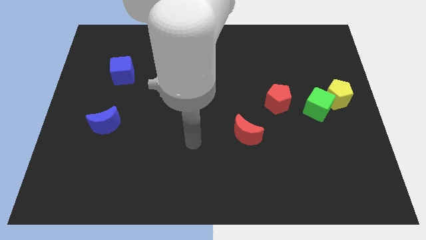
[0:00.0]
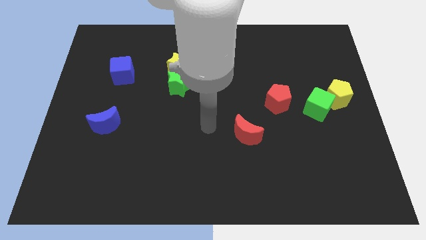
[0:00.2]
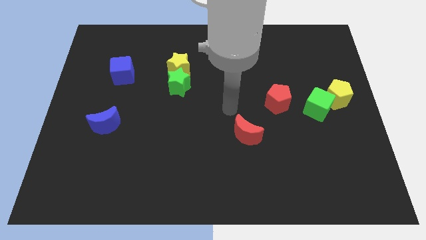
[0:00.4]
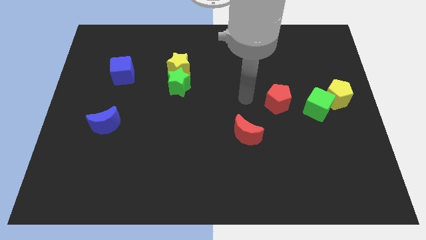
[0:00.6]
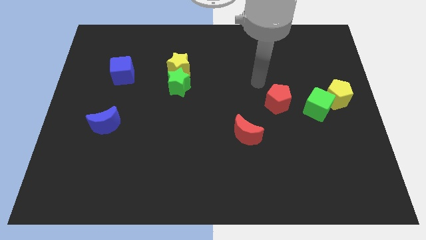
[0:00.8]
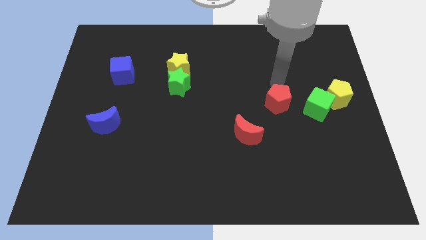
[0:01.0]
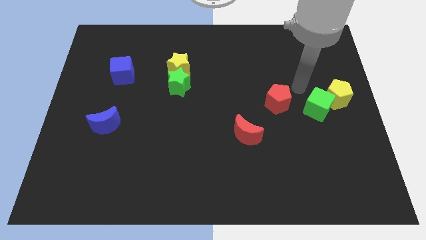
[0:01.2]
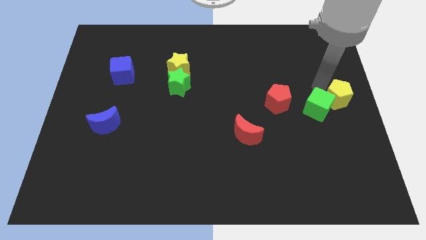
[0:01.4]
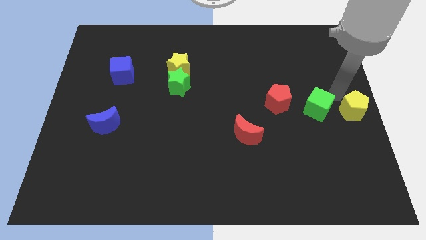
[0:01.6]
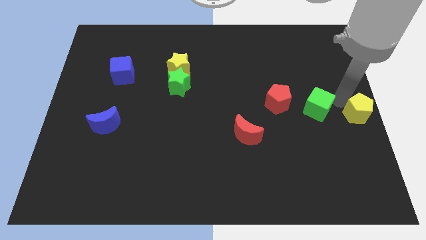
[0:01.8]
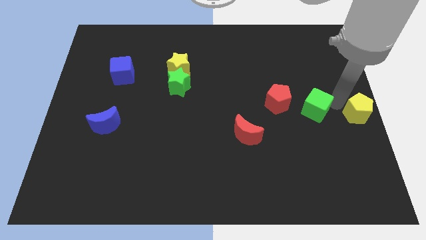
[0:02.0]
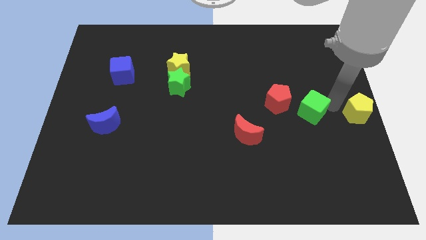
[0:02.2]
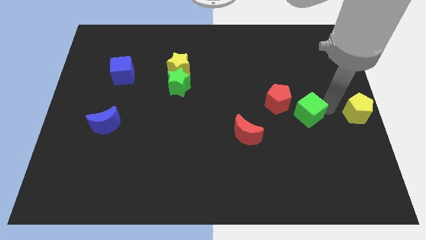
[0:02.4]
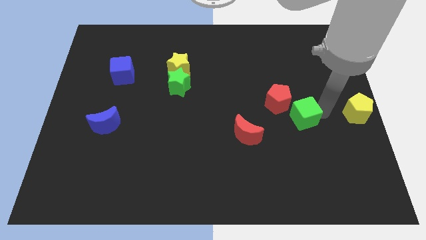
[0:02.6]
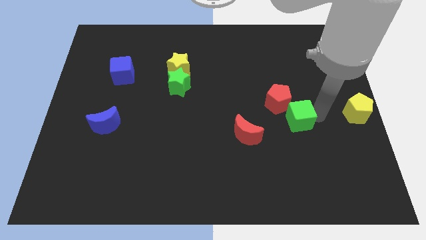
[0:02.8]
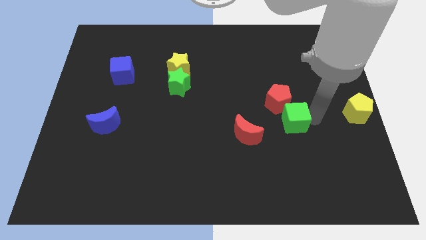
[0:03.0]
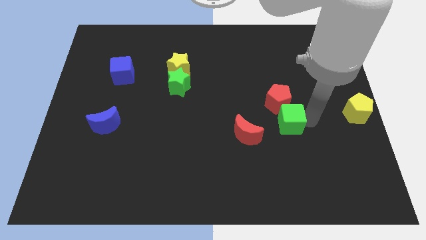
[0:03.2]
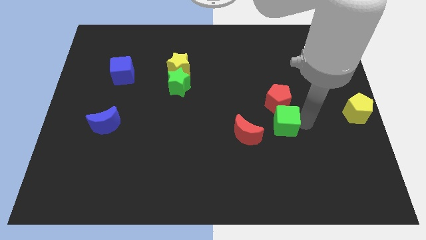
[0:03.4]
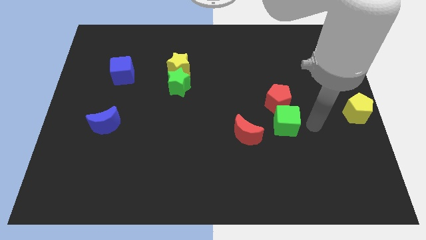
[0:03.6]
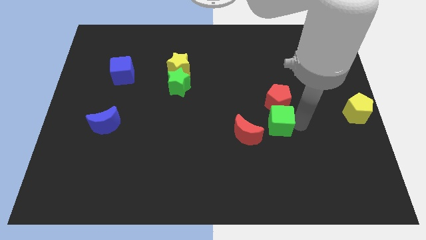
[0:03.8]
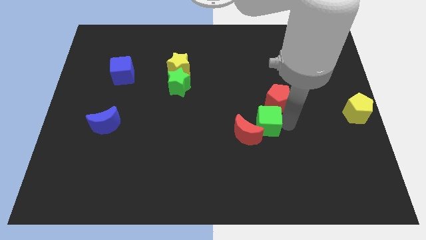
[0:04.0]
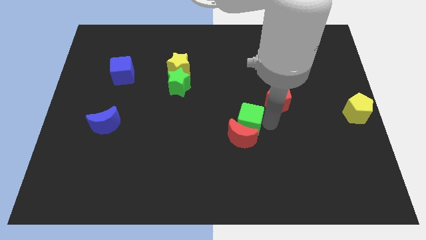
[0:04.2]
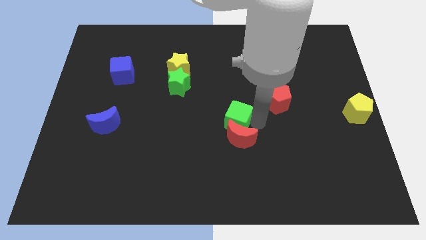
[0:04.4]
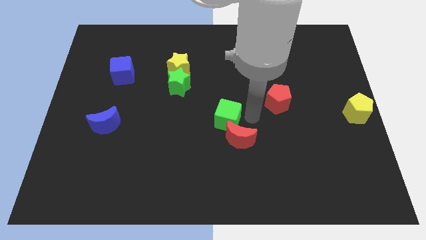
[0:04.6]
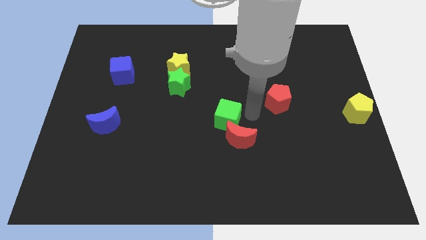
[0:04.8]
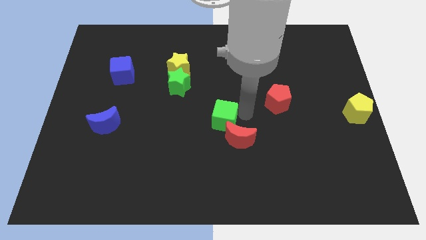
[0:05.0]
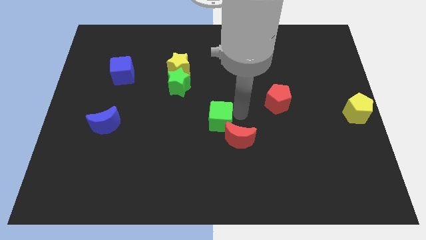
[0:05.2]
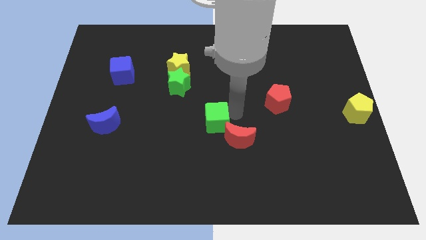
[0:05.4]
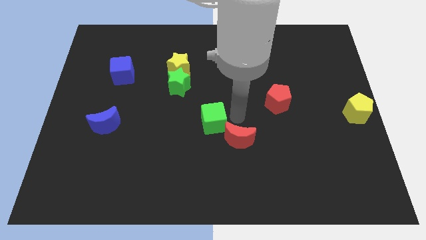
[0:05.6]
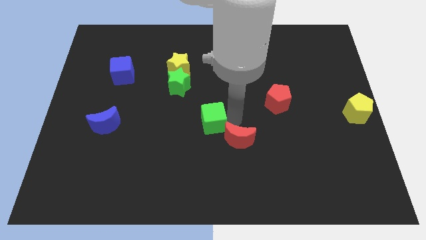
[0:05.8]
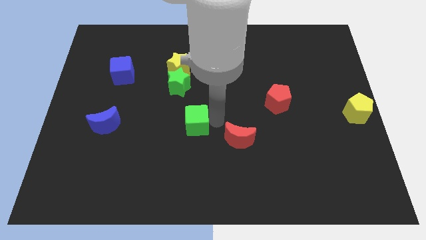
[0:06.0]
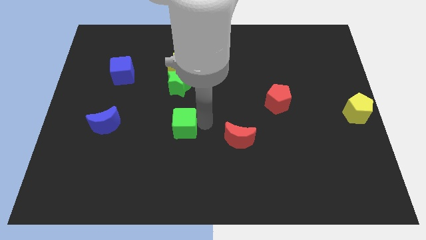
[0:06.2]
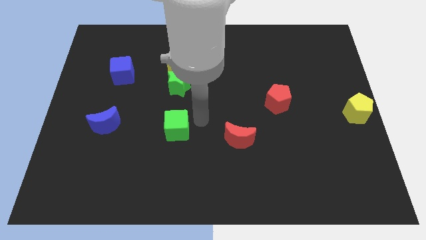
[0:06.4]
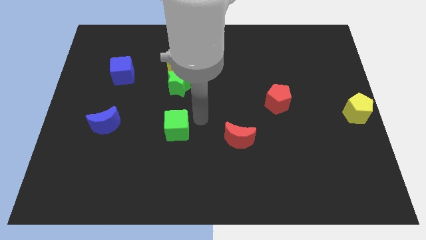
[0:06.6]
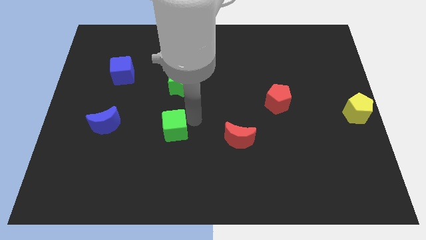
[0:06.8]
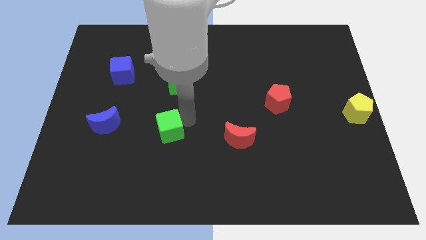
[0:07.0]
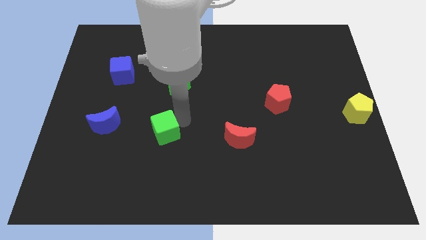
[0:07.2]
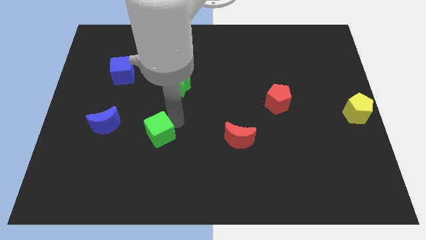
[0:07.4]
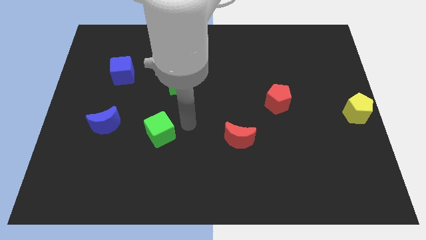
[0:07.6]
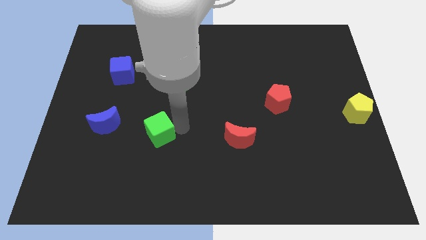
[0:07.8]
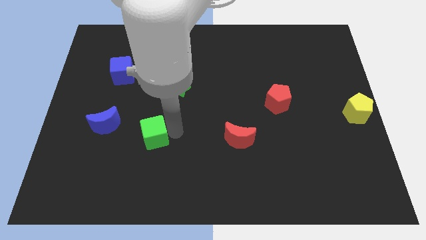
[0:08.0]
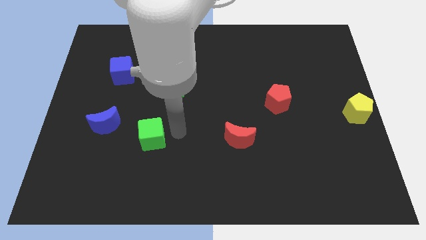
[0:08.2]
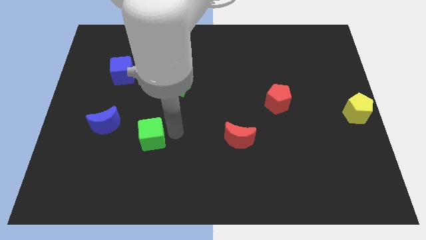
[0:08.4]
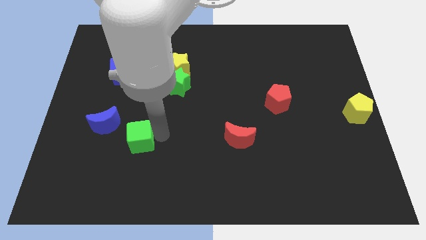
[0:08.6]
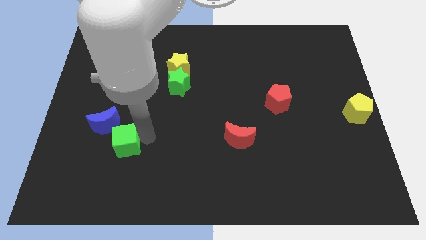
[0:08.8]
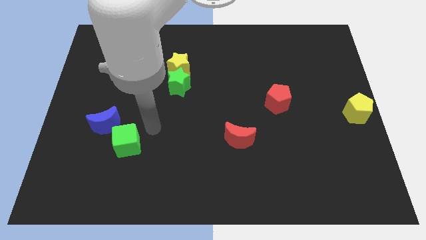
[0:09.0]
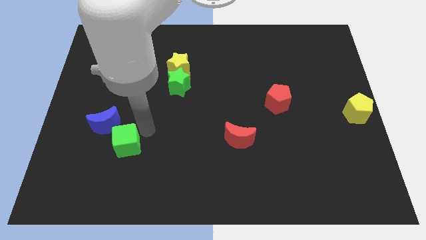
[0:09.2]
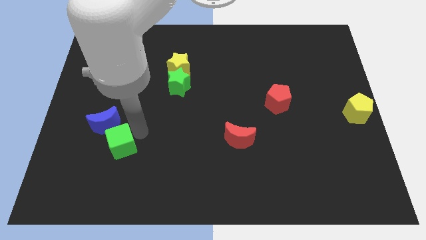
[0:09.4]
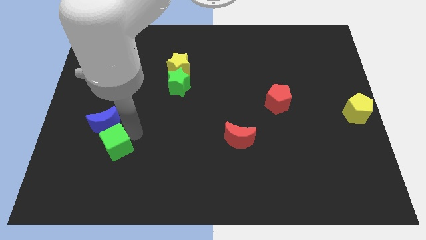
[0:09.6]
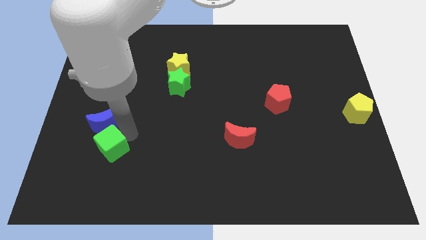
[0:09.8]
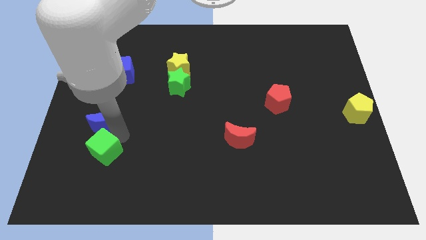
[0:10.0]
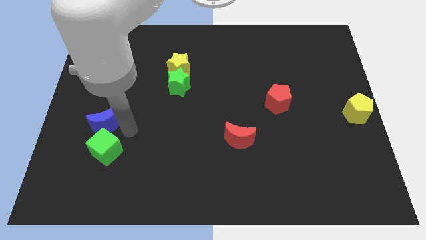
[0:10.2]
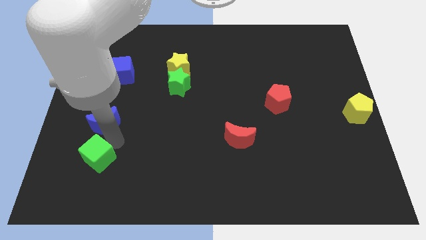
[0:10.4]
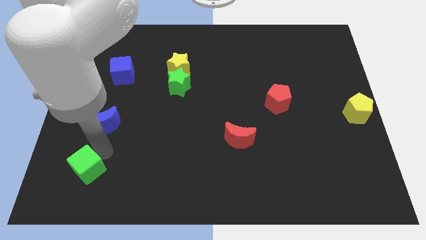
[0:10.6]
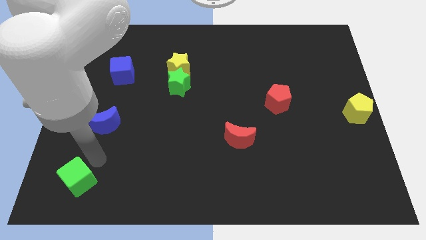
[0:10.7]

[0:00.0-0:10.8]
slide the green cube to the bottom left corner

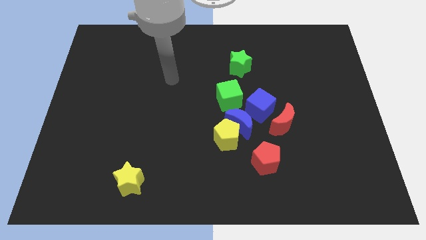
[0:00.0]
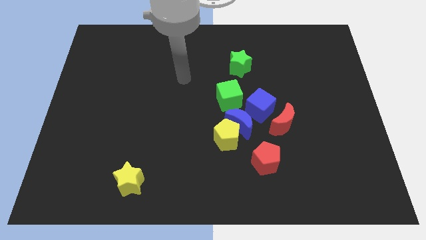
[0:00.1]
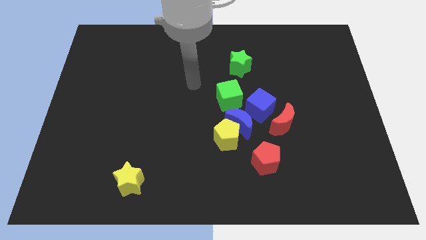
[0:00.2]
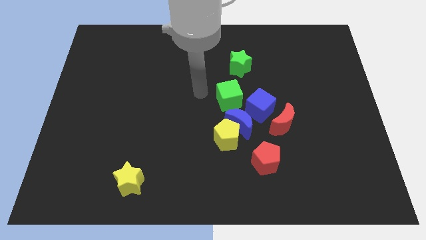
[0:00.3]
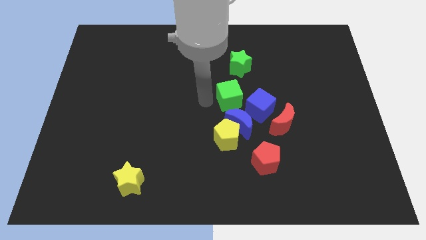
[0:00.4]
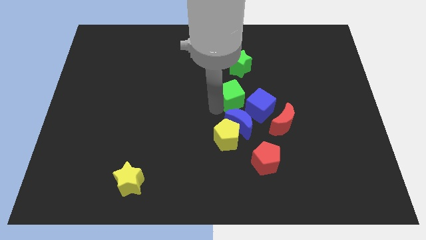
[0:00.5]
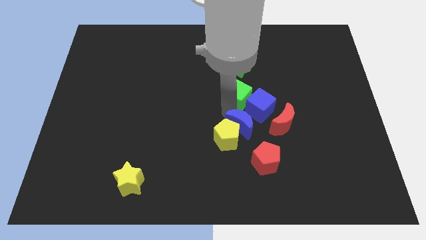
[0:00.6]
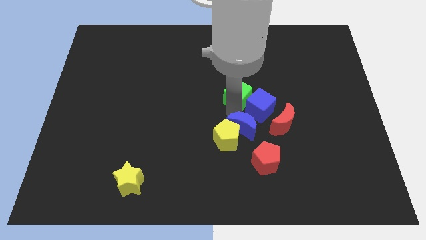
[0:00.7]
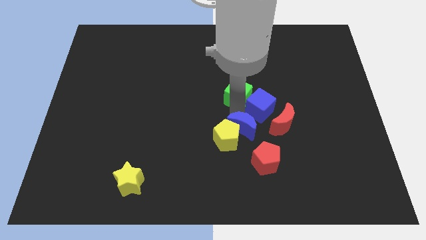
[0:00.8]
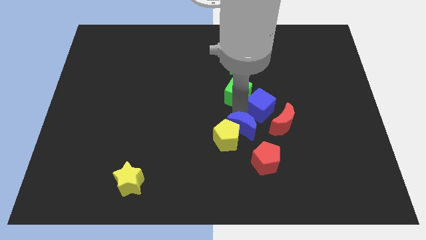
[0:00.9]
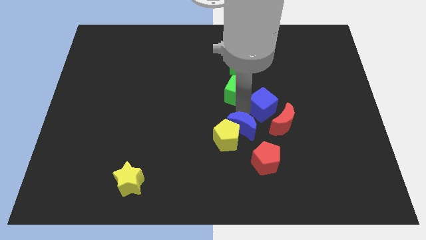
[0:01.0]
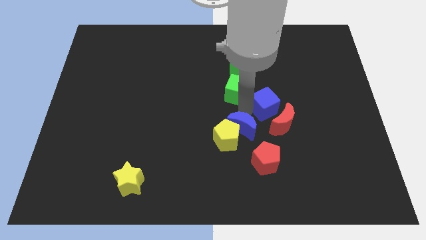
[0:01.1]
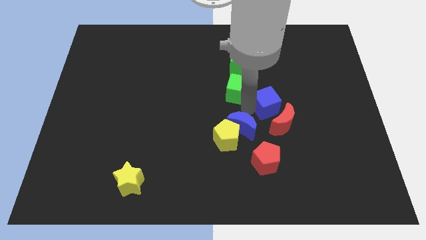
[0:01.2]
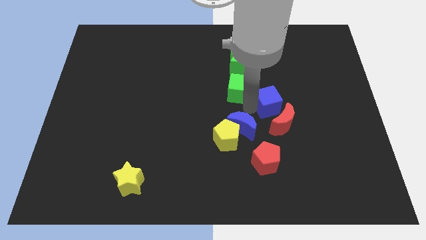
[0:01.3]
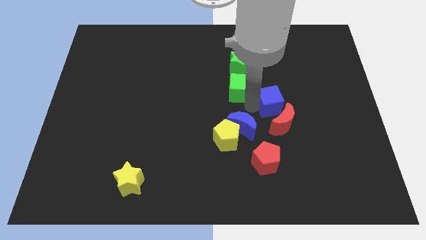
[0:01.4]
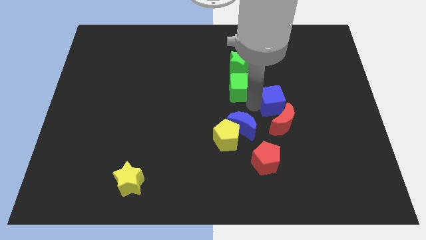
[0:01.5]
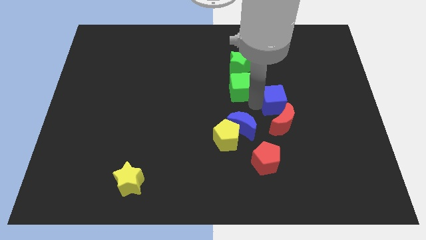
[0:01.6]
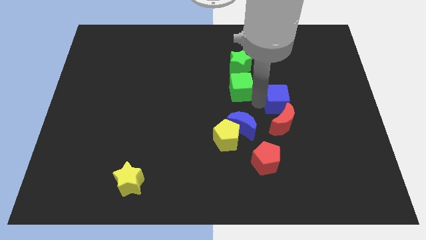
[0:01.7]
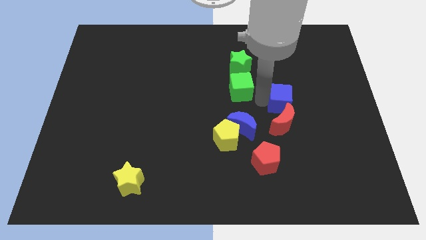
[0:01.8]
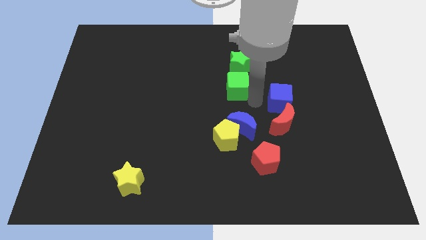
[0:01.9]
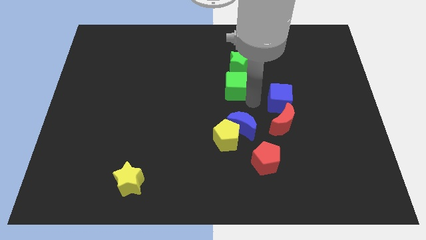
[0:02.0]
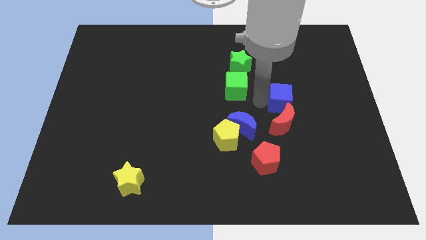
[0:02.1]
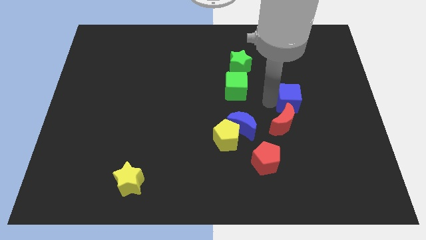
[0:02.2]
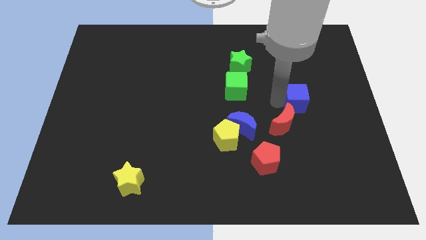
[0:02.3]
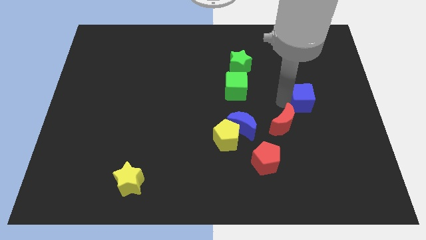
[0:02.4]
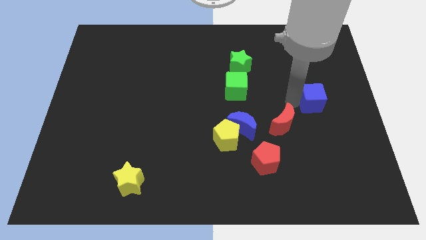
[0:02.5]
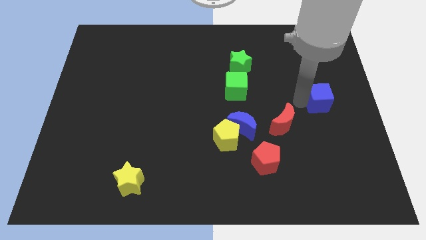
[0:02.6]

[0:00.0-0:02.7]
move the blue cube to the right side
